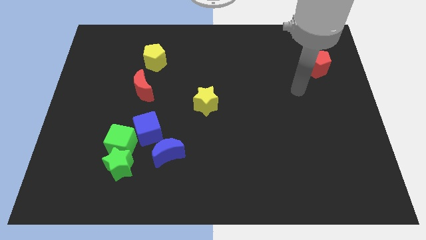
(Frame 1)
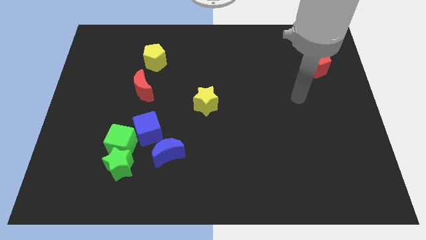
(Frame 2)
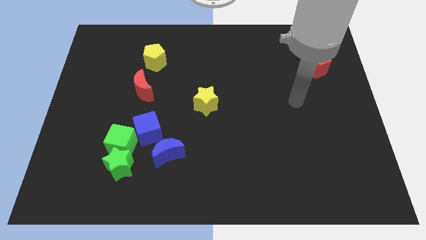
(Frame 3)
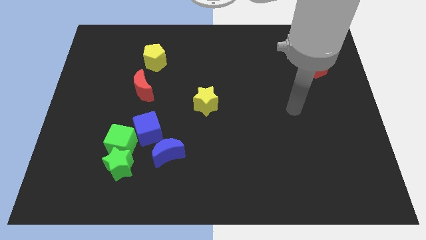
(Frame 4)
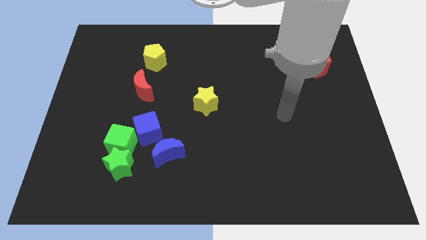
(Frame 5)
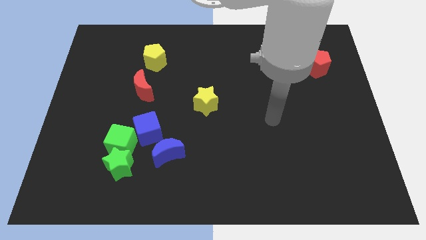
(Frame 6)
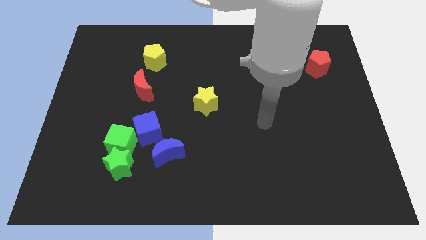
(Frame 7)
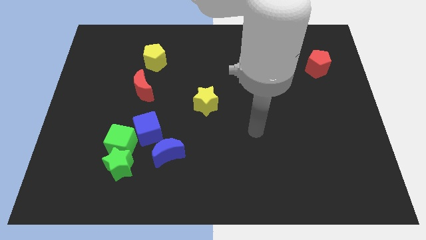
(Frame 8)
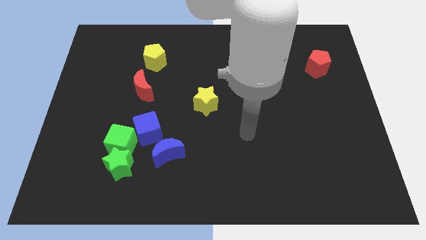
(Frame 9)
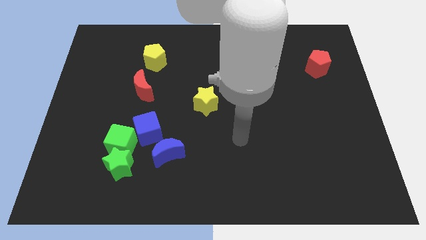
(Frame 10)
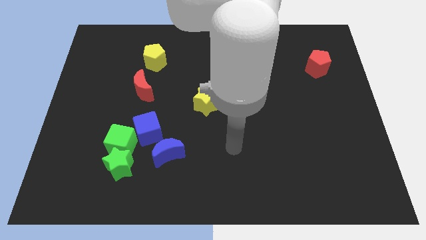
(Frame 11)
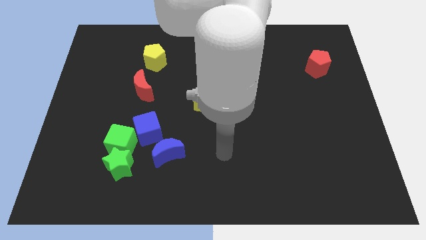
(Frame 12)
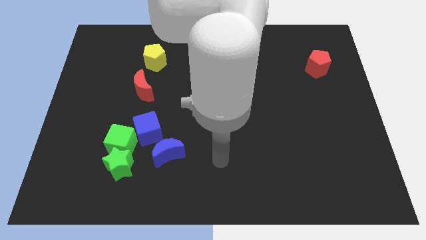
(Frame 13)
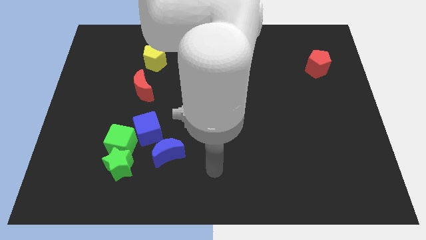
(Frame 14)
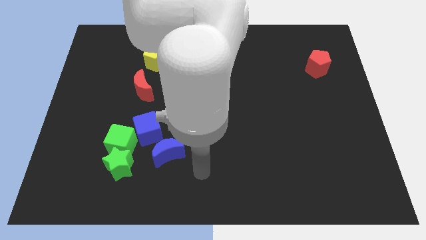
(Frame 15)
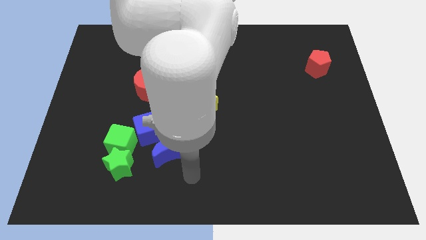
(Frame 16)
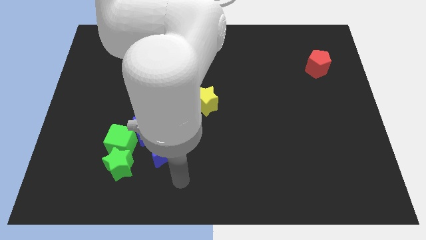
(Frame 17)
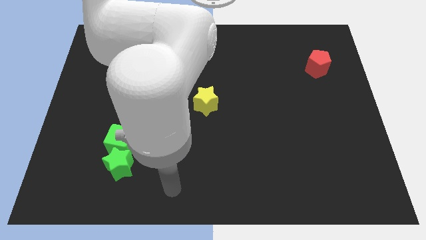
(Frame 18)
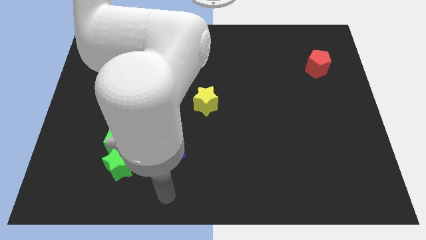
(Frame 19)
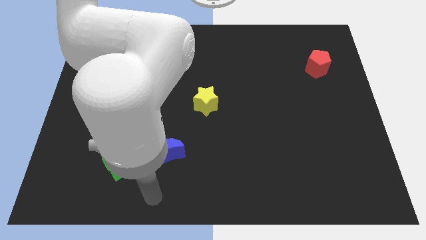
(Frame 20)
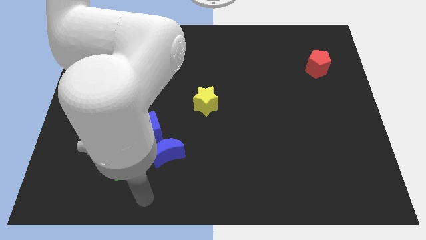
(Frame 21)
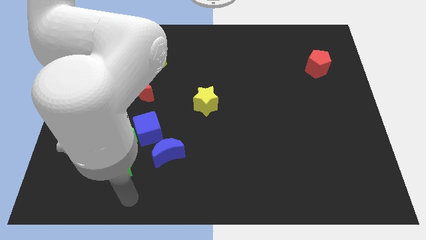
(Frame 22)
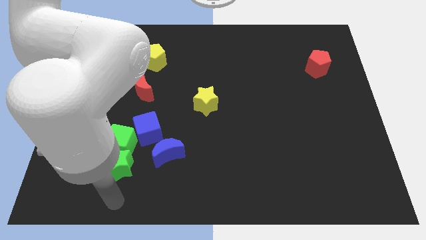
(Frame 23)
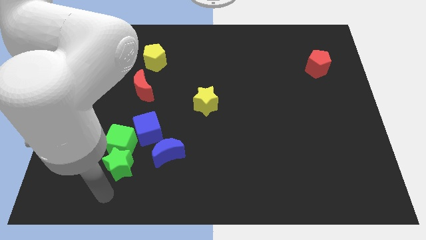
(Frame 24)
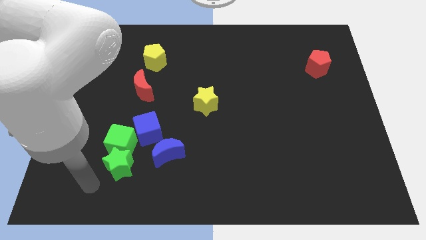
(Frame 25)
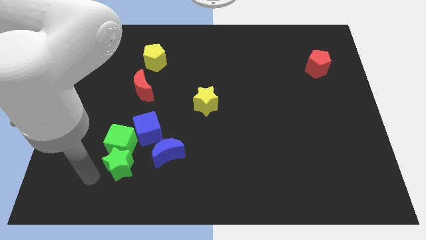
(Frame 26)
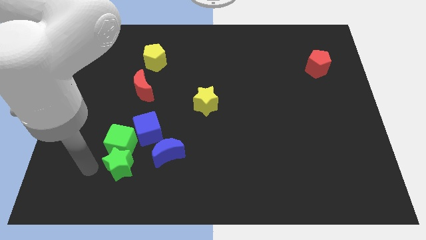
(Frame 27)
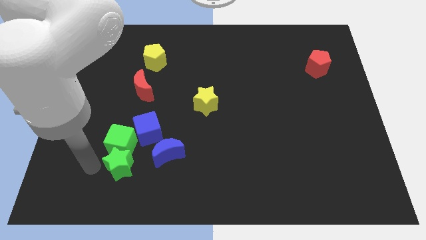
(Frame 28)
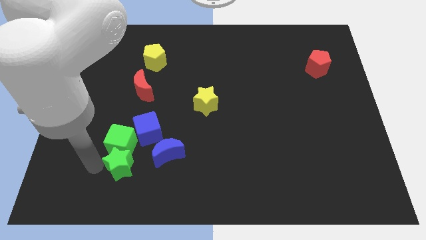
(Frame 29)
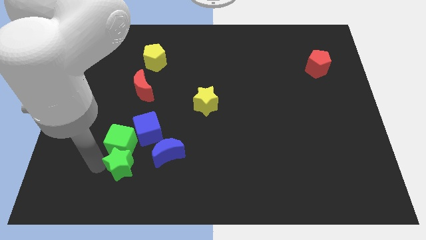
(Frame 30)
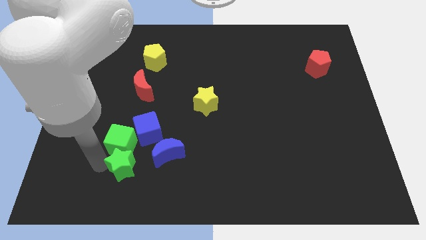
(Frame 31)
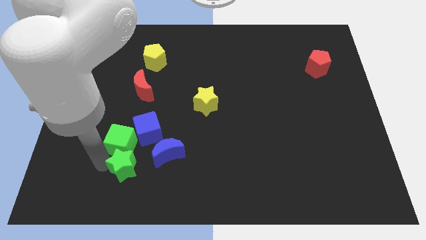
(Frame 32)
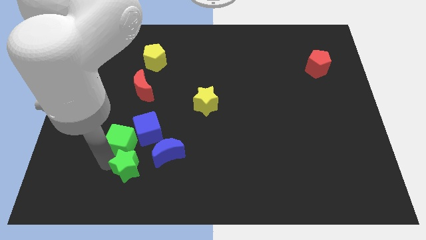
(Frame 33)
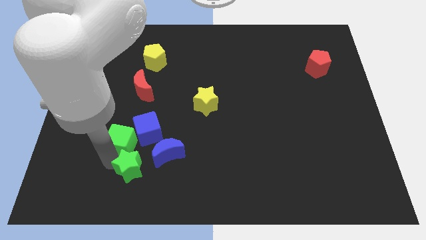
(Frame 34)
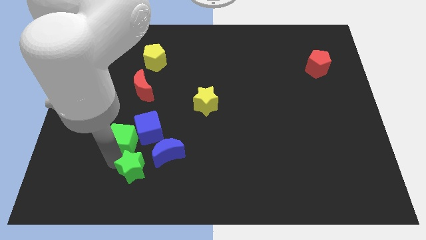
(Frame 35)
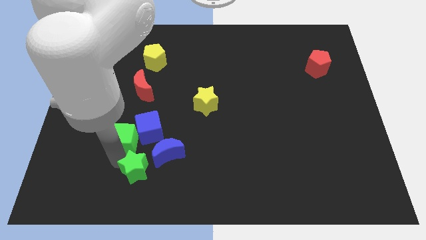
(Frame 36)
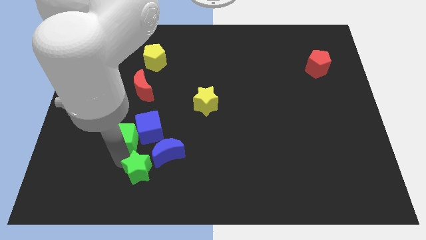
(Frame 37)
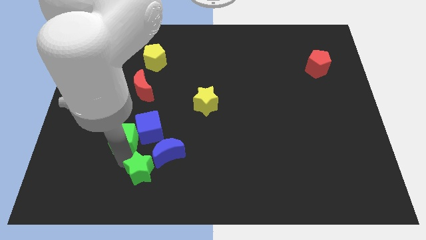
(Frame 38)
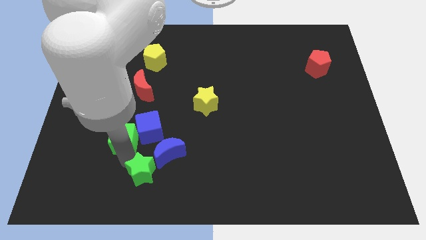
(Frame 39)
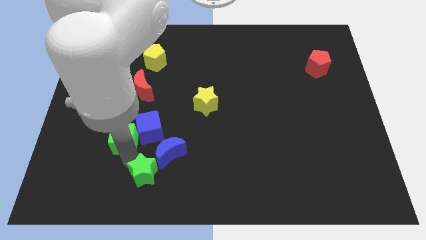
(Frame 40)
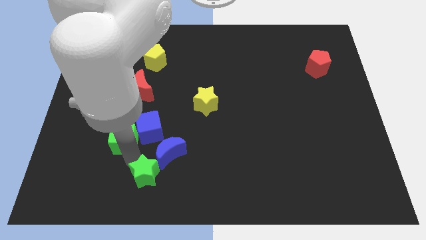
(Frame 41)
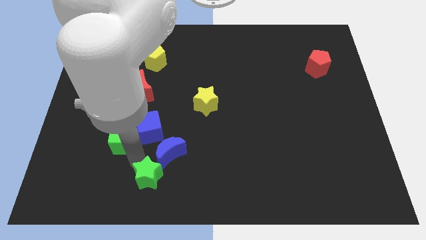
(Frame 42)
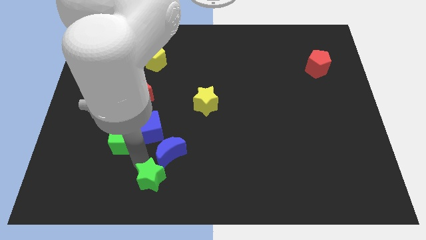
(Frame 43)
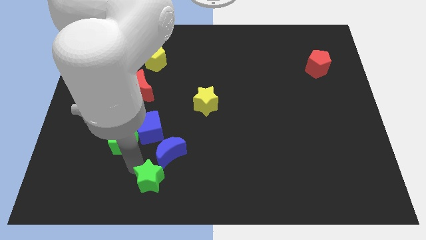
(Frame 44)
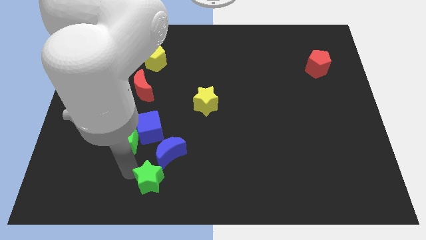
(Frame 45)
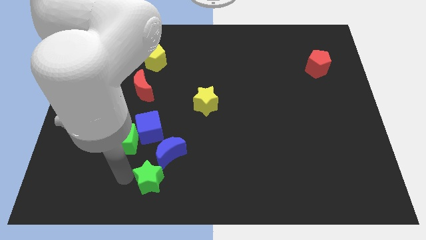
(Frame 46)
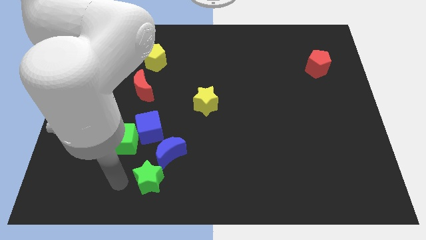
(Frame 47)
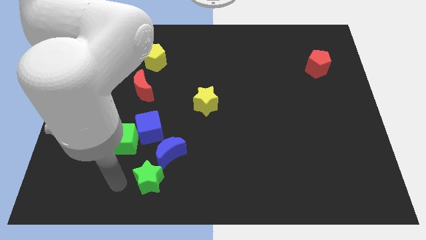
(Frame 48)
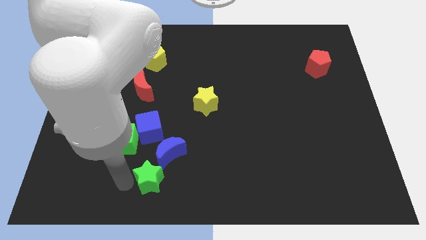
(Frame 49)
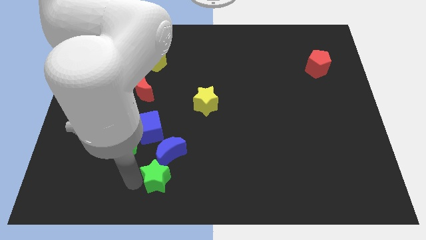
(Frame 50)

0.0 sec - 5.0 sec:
slightly push the green star to the right

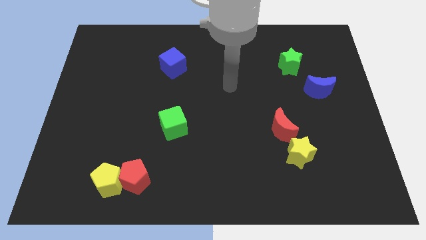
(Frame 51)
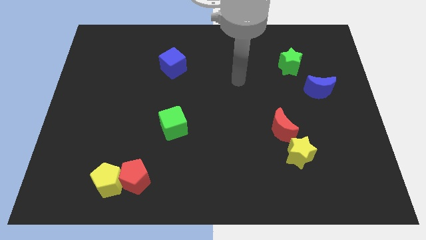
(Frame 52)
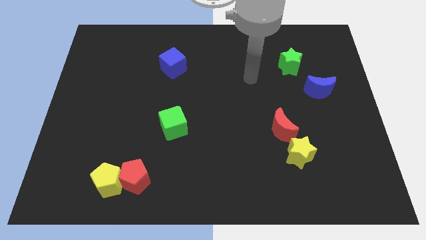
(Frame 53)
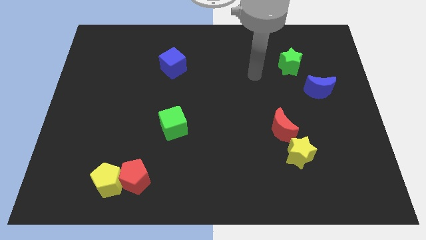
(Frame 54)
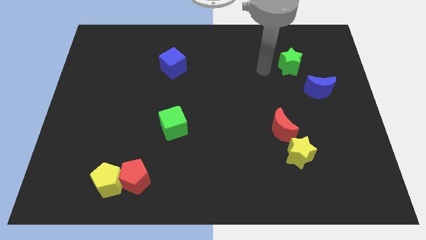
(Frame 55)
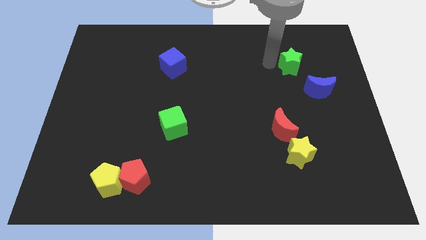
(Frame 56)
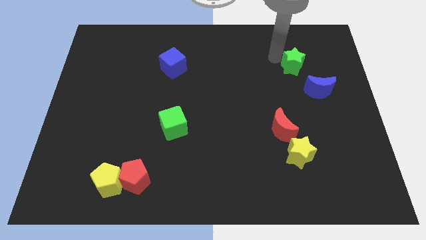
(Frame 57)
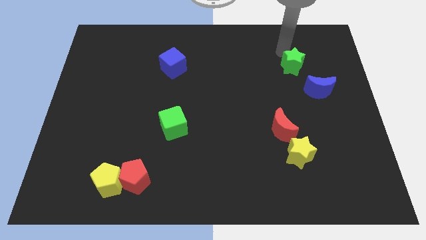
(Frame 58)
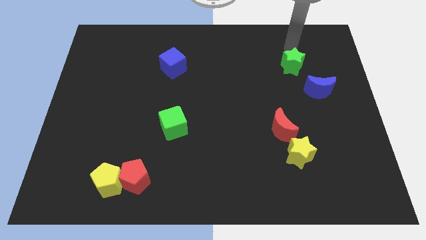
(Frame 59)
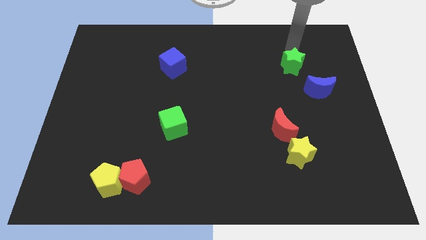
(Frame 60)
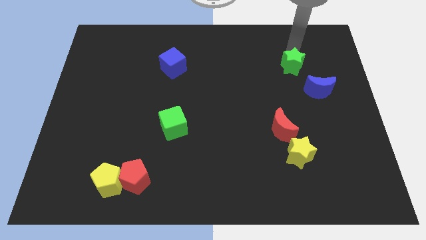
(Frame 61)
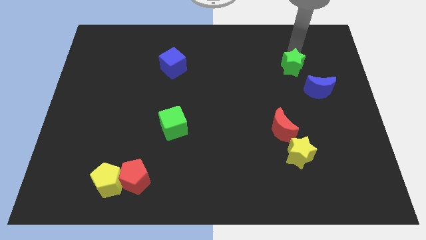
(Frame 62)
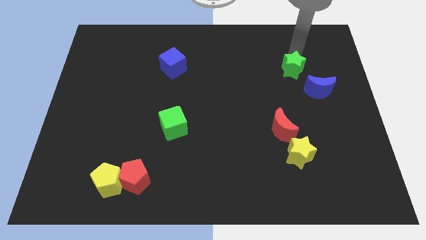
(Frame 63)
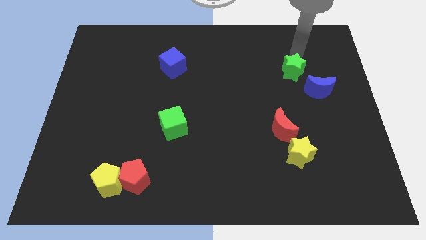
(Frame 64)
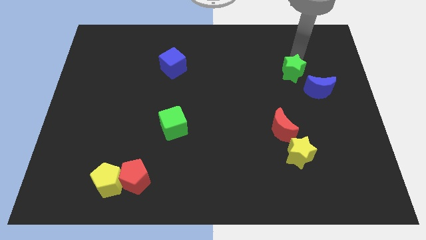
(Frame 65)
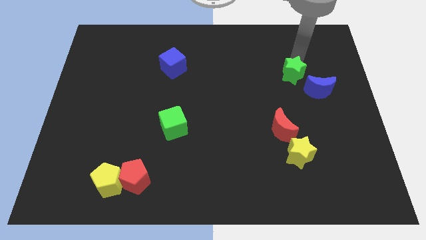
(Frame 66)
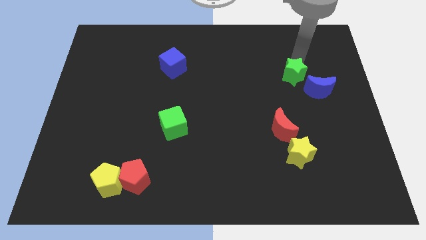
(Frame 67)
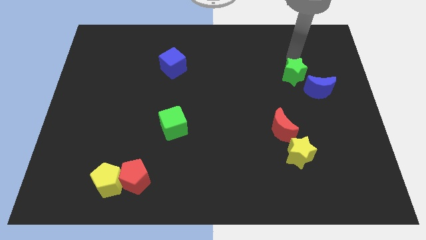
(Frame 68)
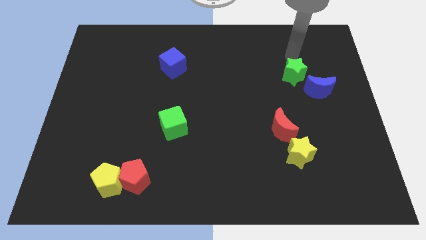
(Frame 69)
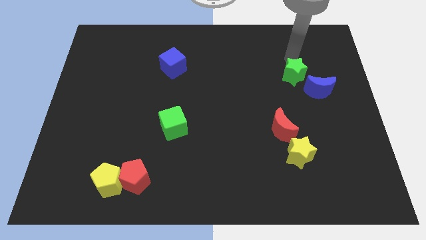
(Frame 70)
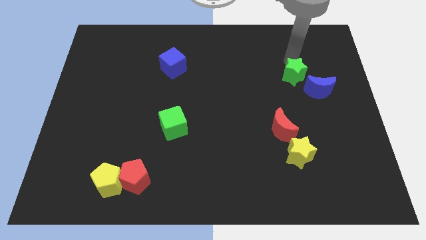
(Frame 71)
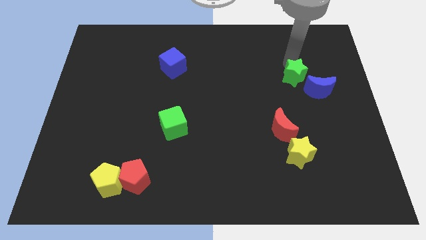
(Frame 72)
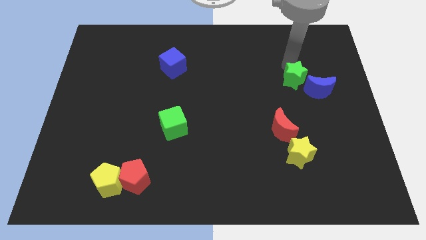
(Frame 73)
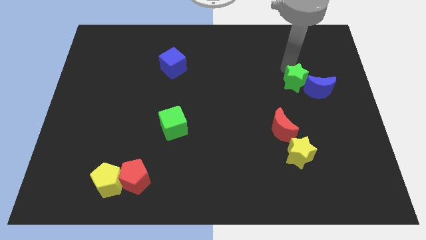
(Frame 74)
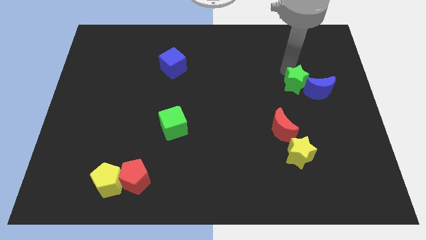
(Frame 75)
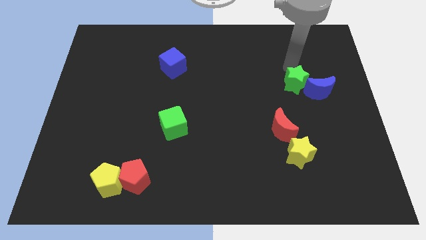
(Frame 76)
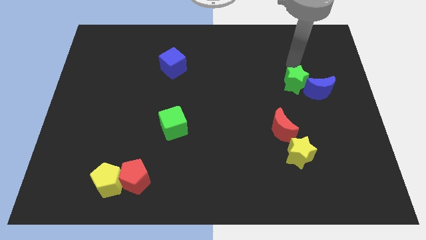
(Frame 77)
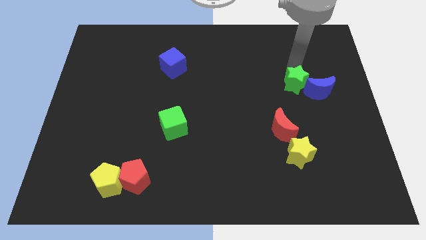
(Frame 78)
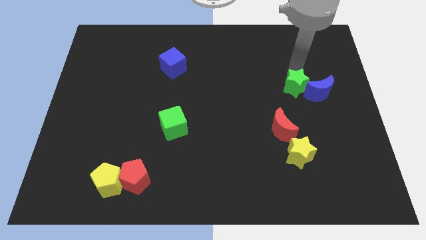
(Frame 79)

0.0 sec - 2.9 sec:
slide the green star down slightly
